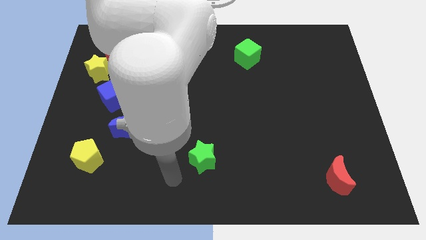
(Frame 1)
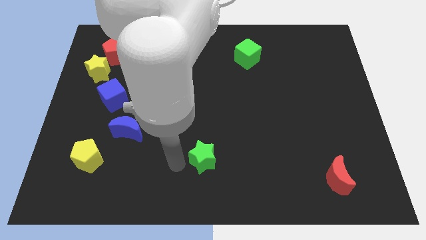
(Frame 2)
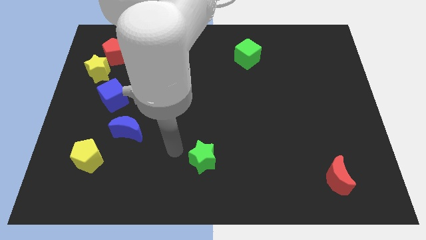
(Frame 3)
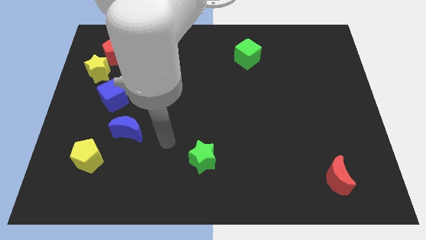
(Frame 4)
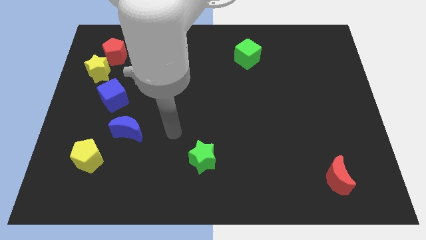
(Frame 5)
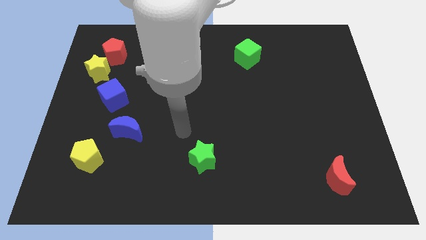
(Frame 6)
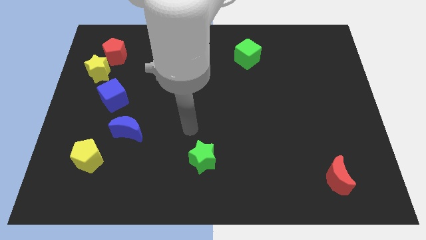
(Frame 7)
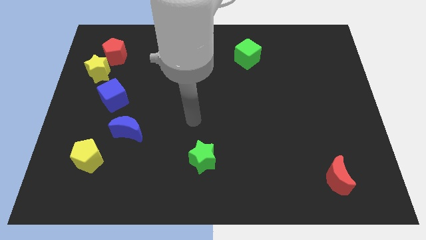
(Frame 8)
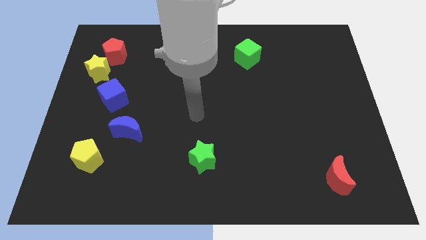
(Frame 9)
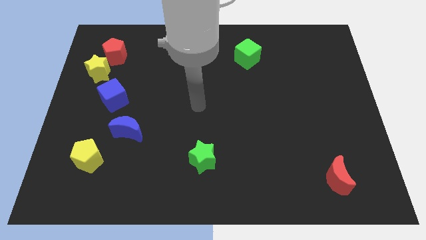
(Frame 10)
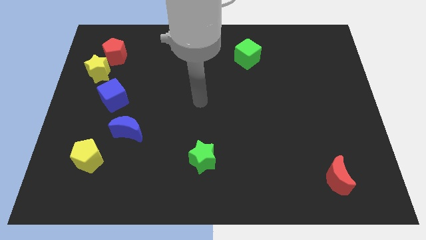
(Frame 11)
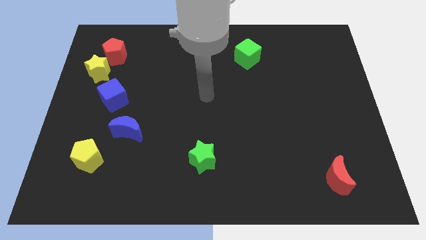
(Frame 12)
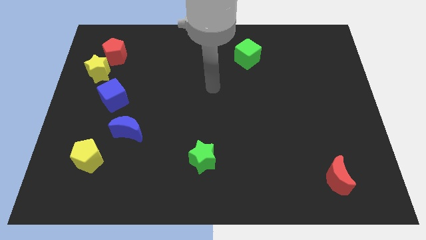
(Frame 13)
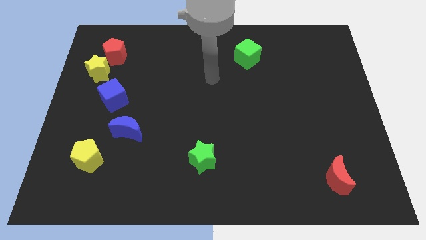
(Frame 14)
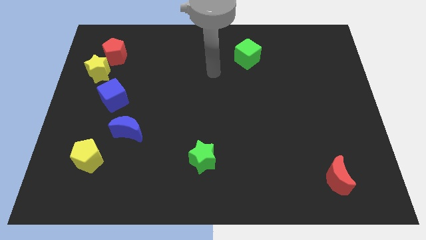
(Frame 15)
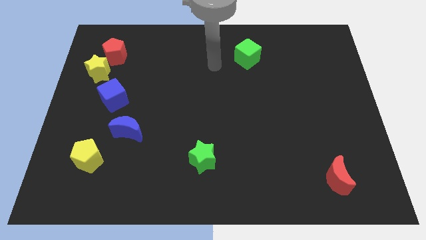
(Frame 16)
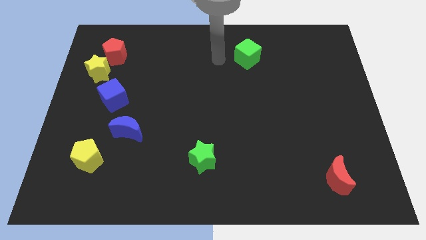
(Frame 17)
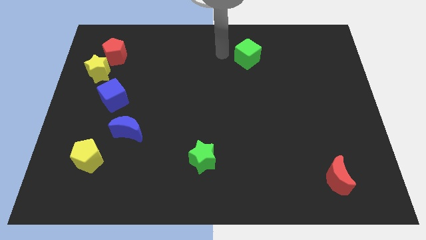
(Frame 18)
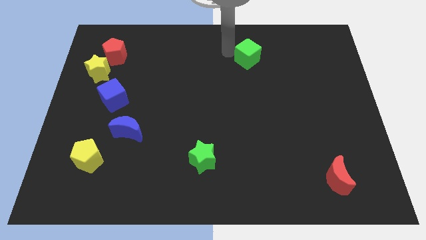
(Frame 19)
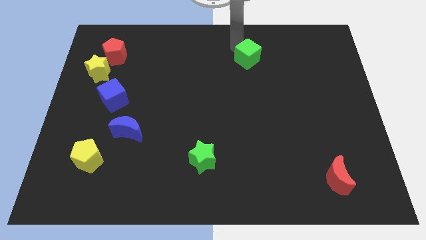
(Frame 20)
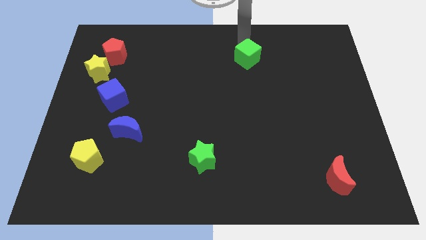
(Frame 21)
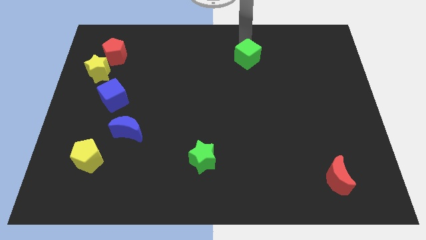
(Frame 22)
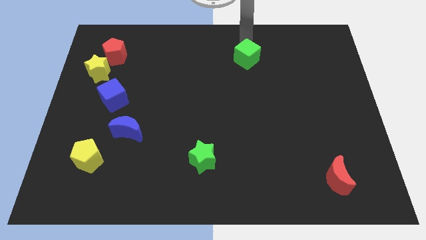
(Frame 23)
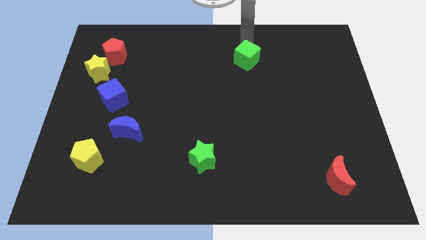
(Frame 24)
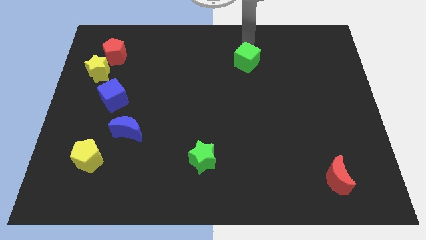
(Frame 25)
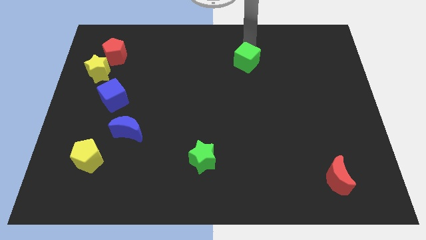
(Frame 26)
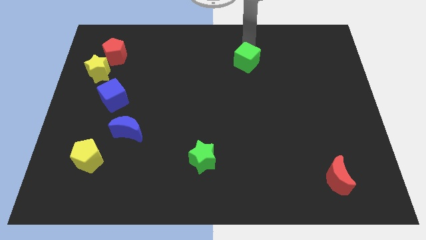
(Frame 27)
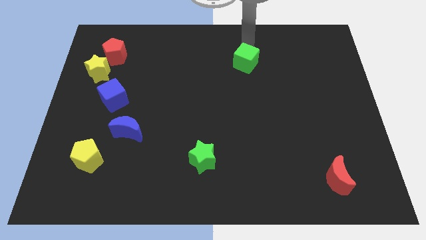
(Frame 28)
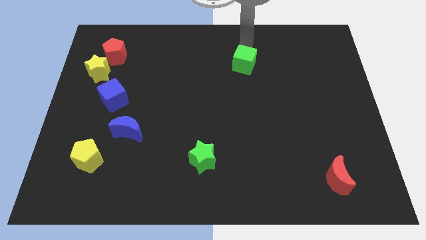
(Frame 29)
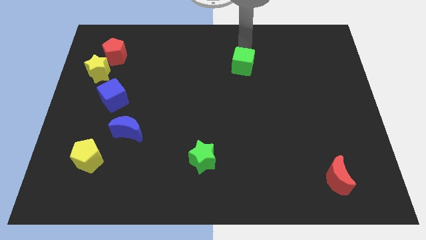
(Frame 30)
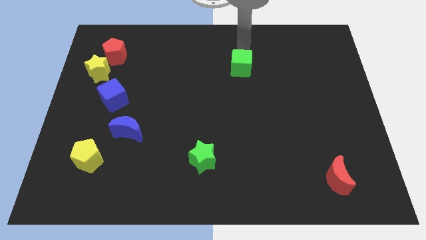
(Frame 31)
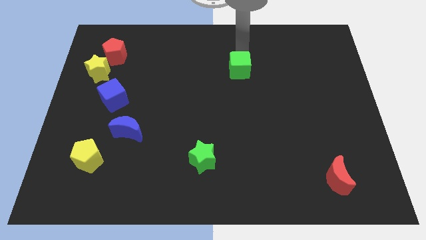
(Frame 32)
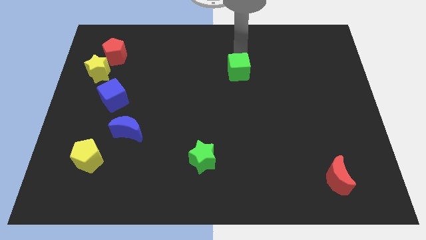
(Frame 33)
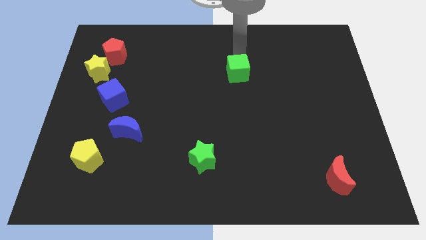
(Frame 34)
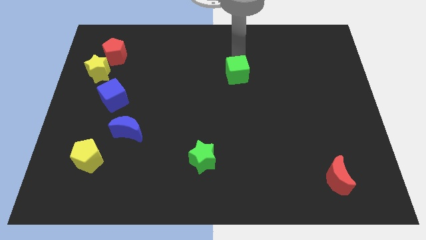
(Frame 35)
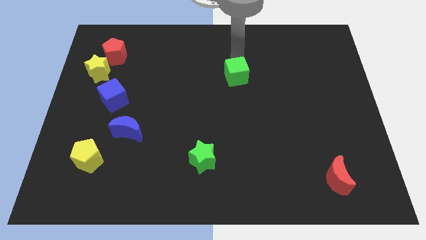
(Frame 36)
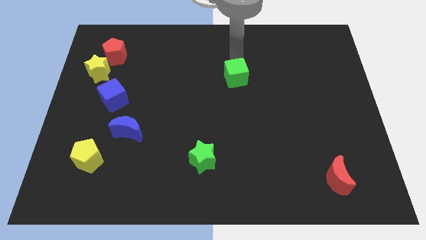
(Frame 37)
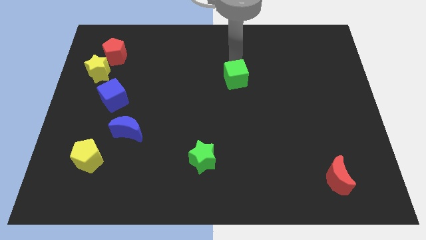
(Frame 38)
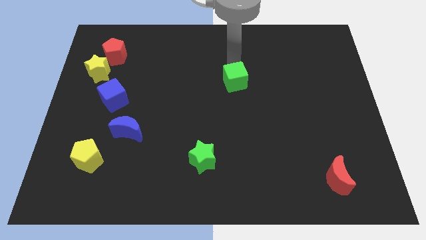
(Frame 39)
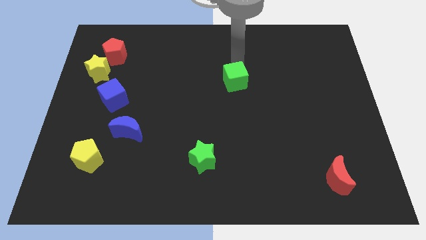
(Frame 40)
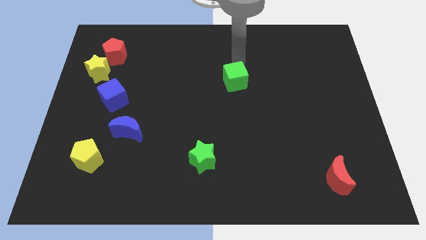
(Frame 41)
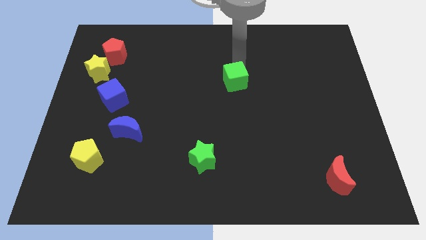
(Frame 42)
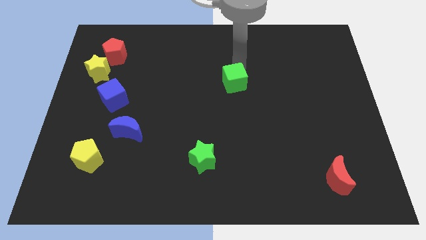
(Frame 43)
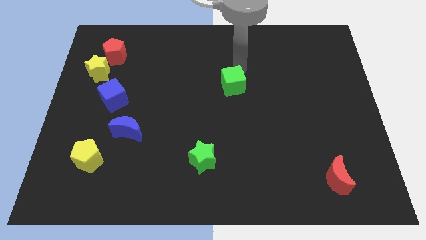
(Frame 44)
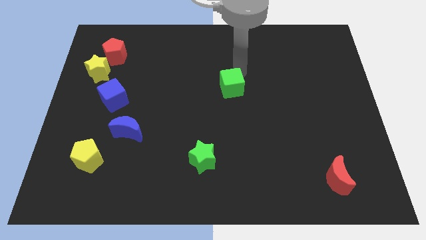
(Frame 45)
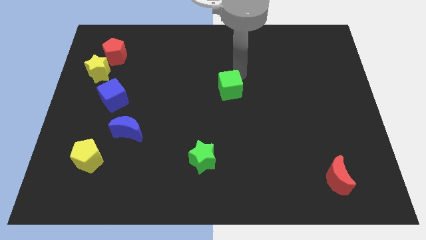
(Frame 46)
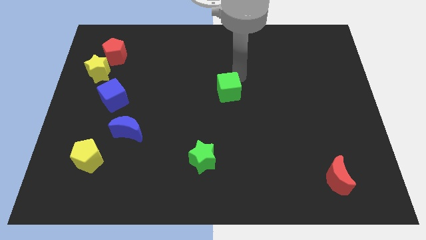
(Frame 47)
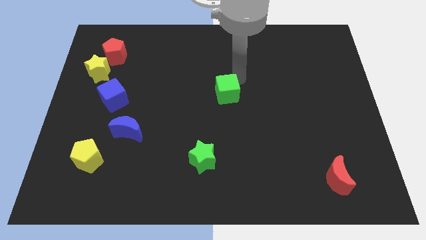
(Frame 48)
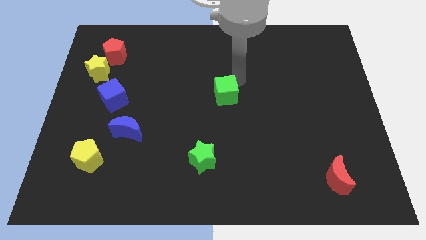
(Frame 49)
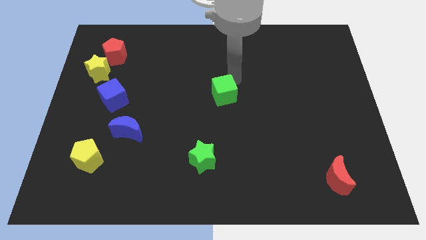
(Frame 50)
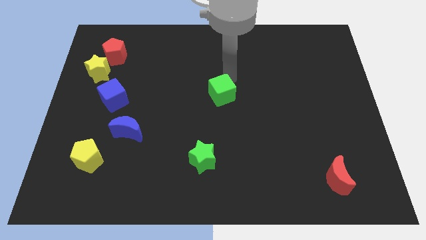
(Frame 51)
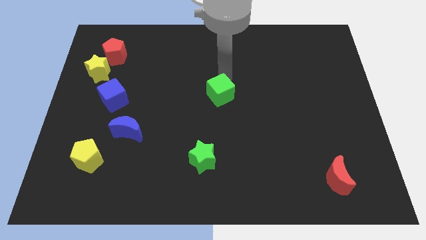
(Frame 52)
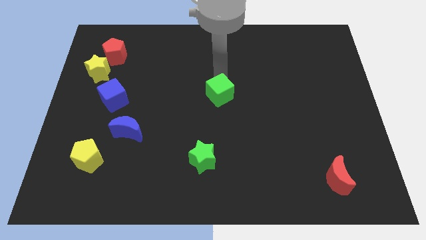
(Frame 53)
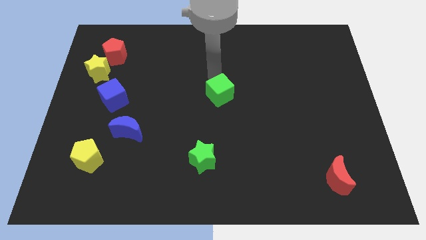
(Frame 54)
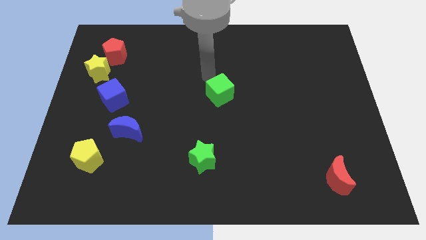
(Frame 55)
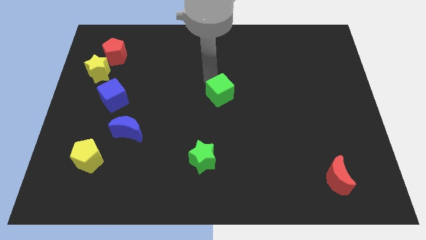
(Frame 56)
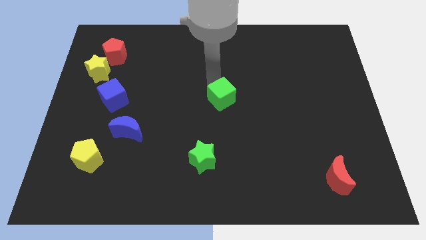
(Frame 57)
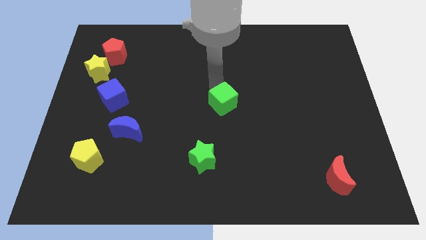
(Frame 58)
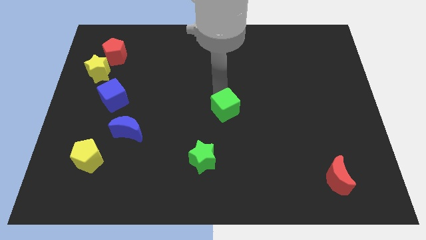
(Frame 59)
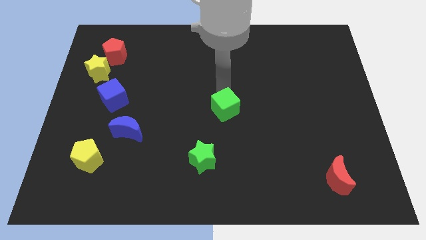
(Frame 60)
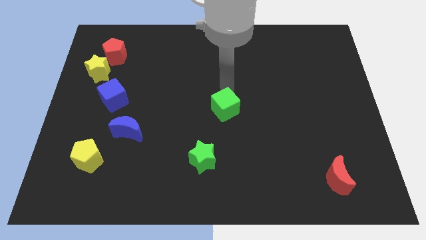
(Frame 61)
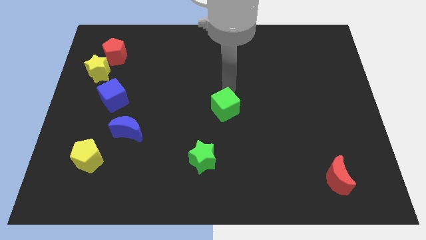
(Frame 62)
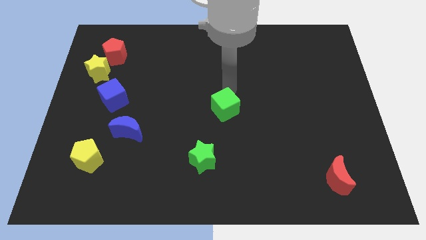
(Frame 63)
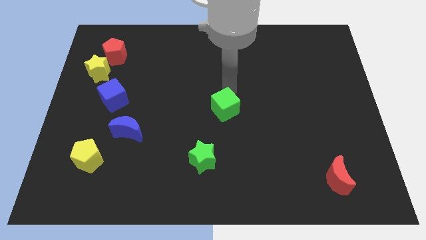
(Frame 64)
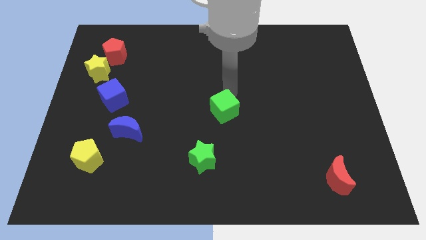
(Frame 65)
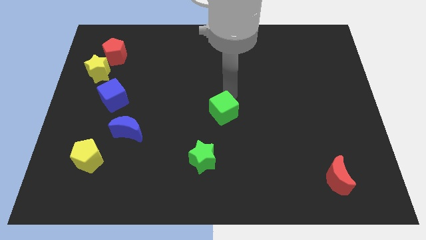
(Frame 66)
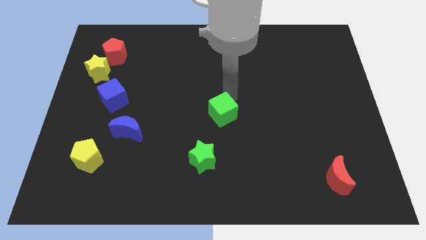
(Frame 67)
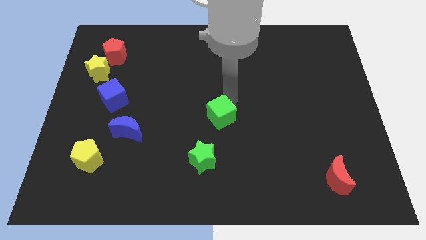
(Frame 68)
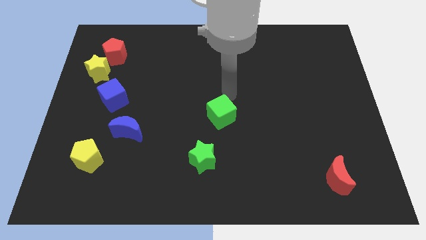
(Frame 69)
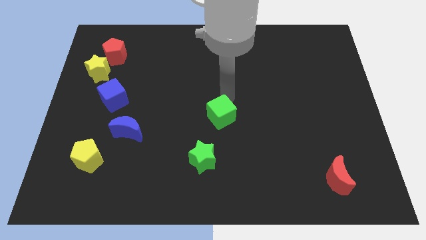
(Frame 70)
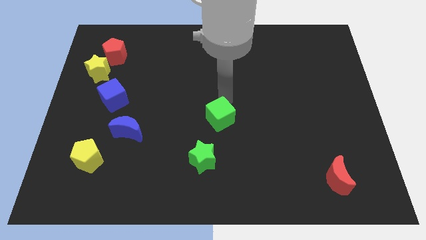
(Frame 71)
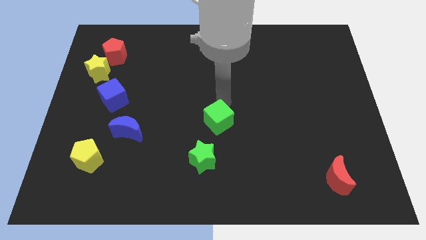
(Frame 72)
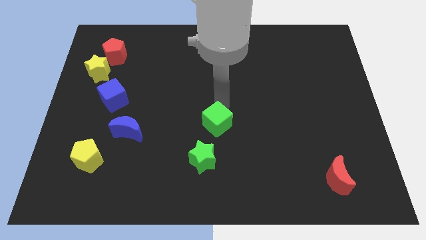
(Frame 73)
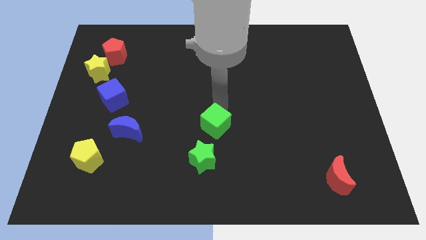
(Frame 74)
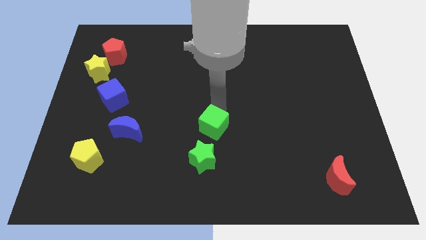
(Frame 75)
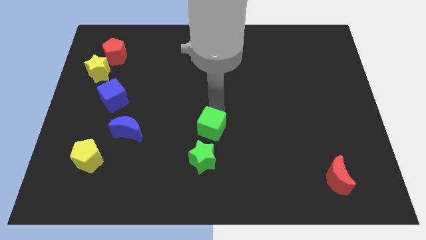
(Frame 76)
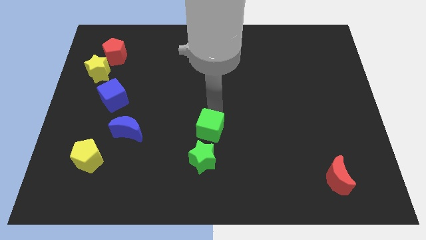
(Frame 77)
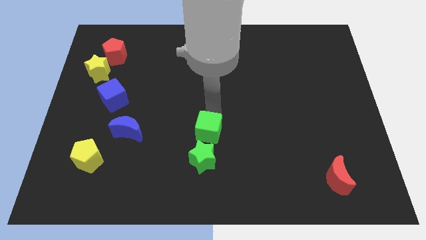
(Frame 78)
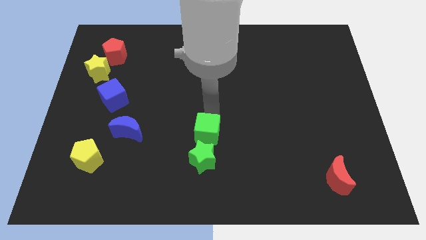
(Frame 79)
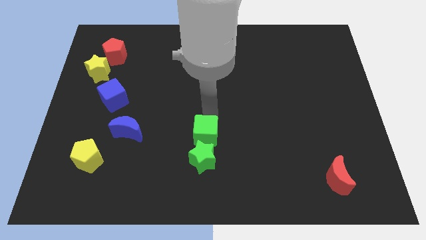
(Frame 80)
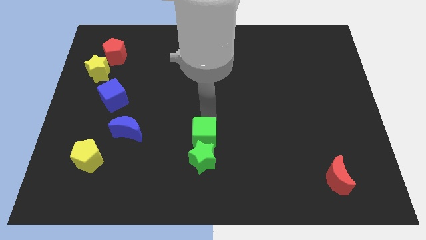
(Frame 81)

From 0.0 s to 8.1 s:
put the green cube close to the green star
